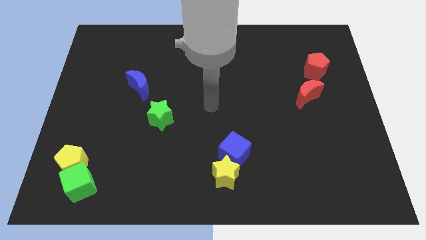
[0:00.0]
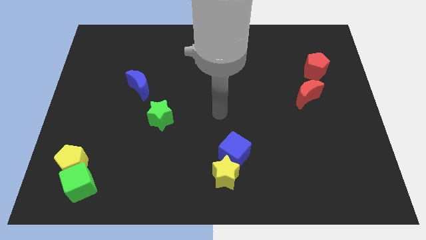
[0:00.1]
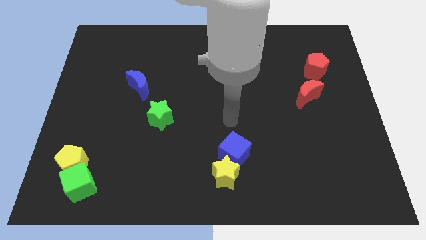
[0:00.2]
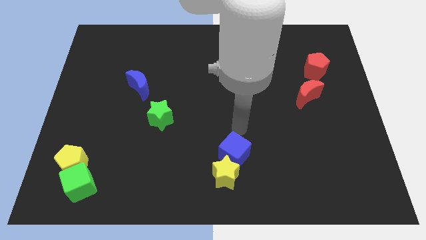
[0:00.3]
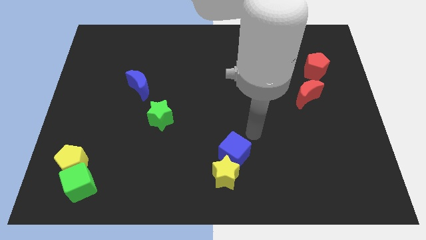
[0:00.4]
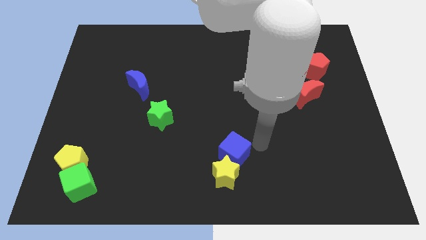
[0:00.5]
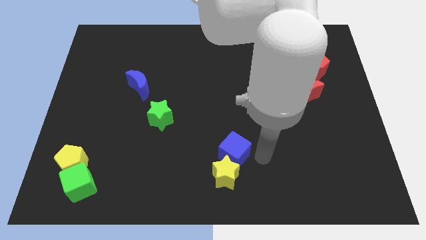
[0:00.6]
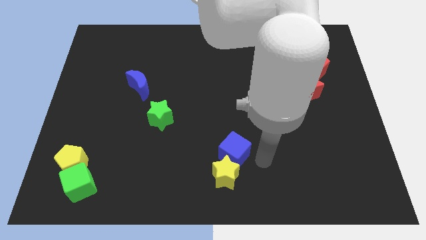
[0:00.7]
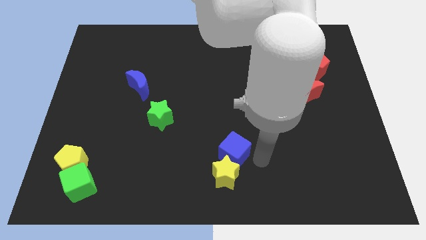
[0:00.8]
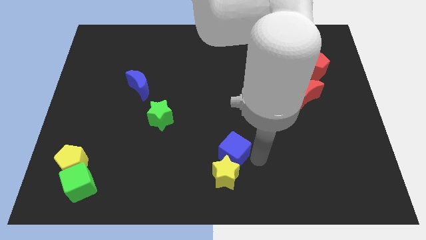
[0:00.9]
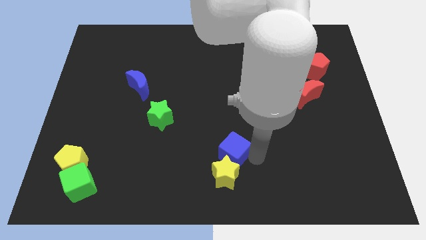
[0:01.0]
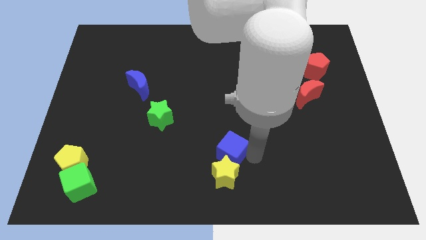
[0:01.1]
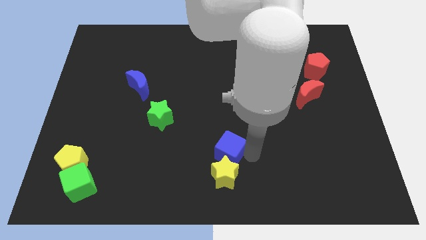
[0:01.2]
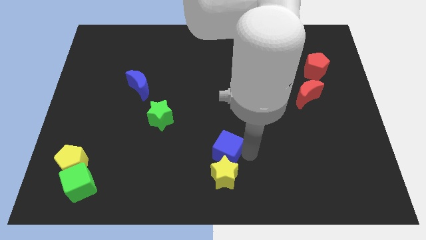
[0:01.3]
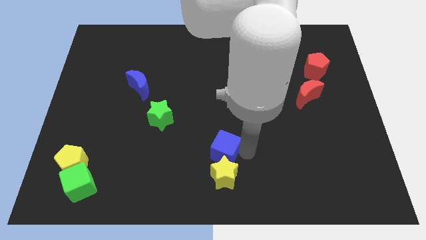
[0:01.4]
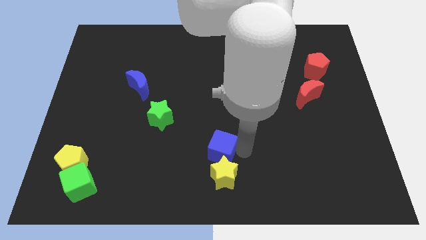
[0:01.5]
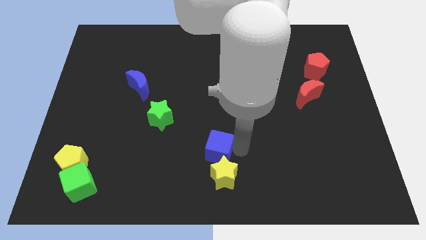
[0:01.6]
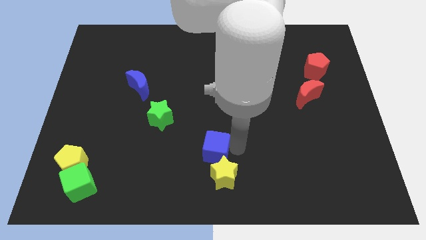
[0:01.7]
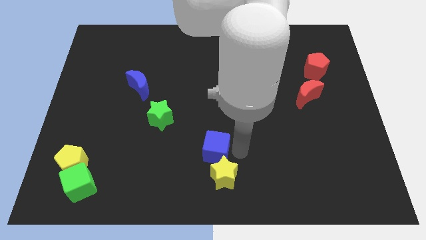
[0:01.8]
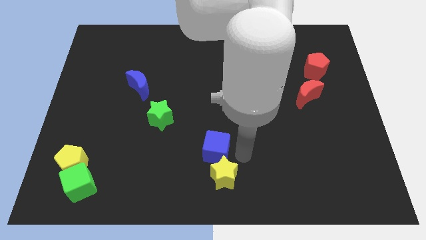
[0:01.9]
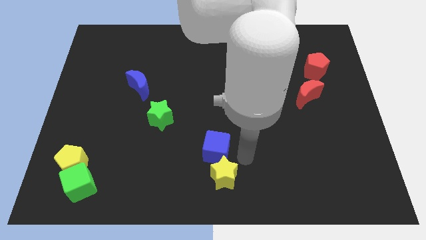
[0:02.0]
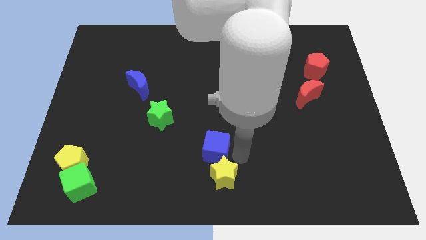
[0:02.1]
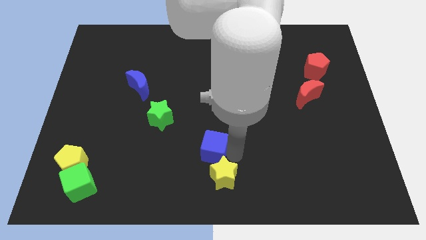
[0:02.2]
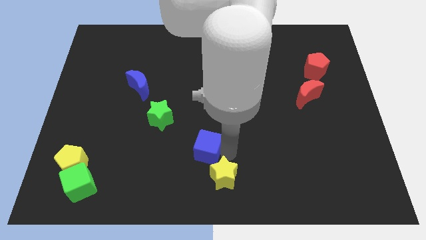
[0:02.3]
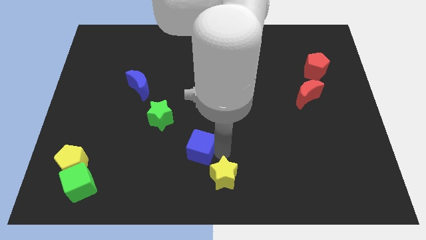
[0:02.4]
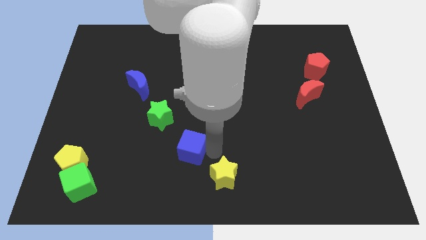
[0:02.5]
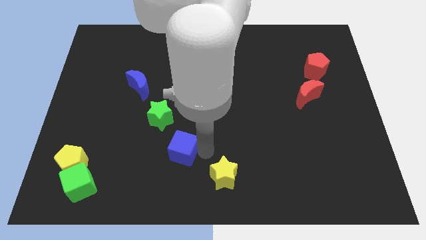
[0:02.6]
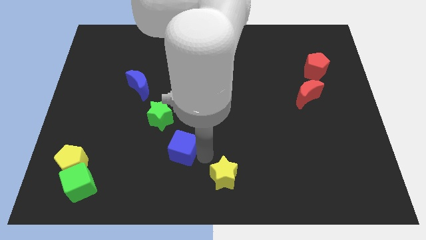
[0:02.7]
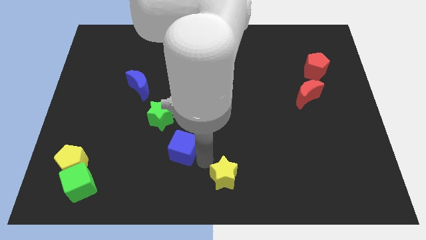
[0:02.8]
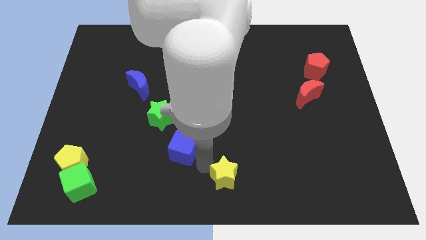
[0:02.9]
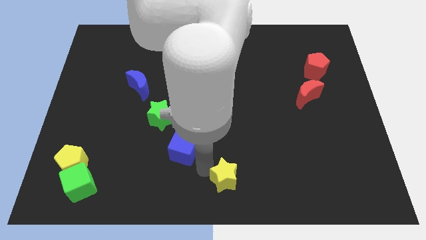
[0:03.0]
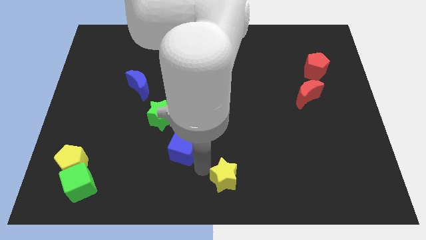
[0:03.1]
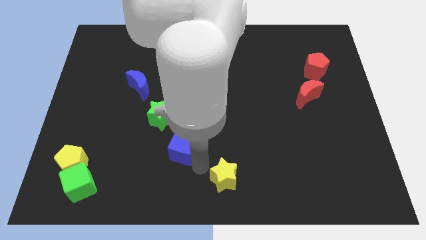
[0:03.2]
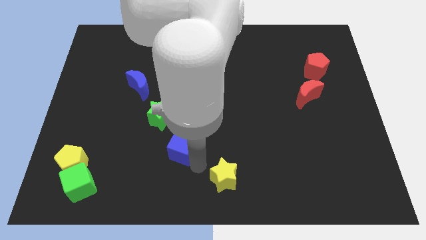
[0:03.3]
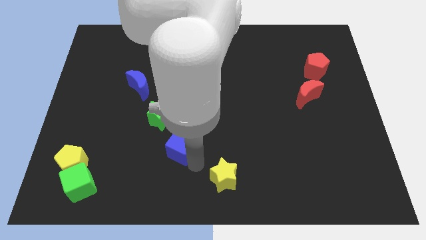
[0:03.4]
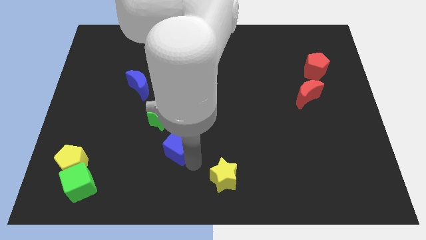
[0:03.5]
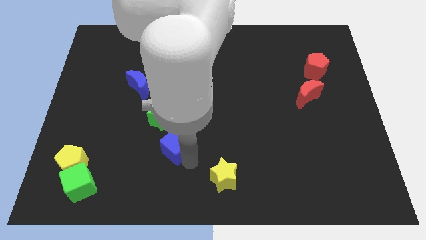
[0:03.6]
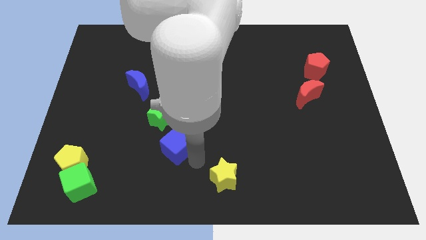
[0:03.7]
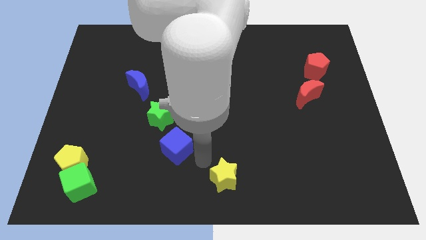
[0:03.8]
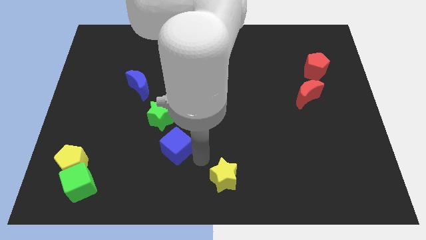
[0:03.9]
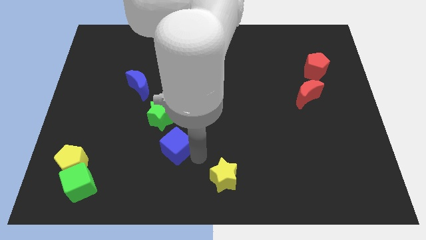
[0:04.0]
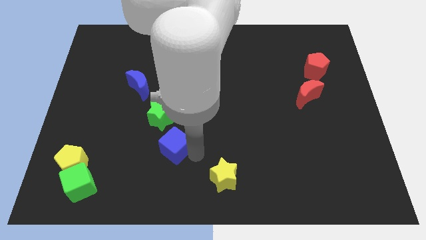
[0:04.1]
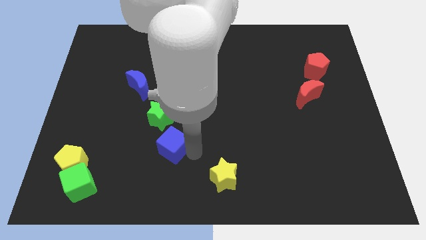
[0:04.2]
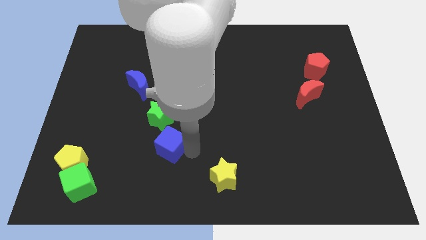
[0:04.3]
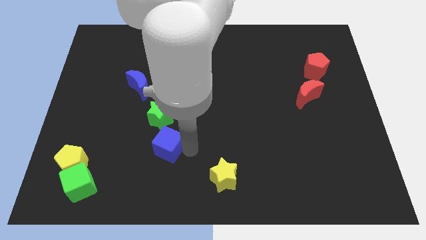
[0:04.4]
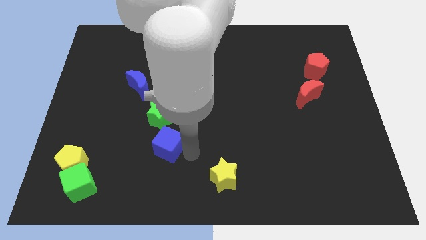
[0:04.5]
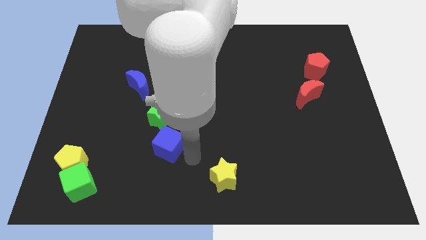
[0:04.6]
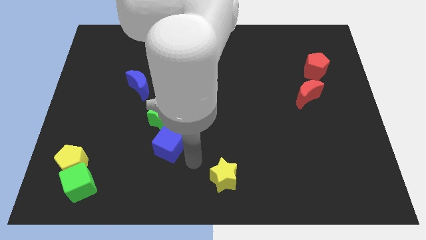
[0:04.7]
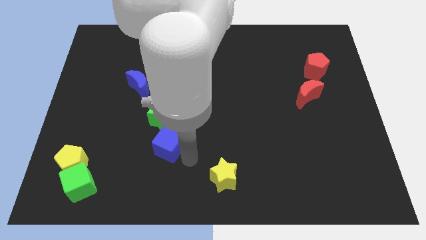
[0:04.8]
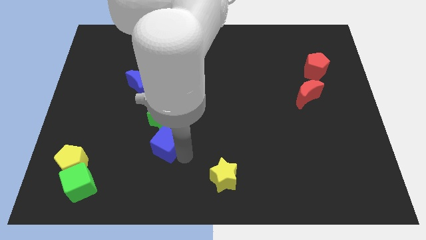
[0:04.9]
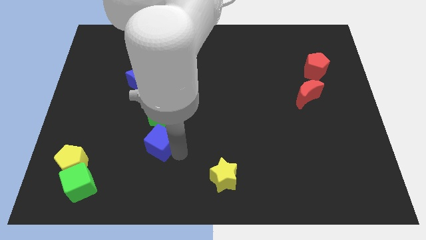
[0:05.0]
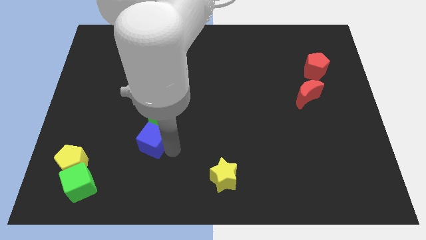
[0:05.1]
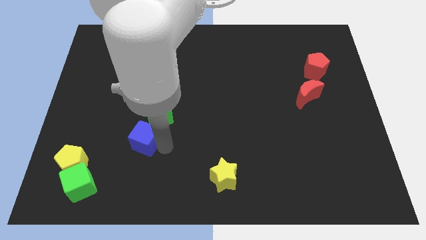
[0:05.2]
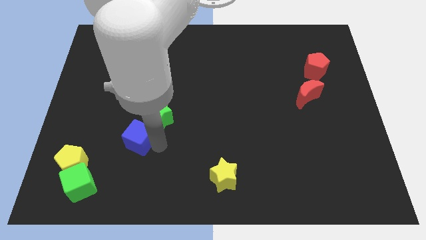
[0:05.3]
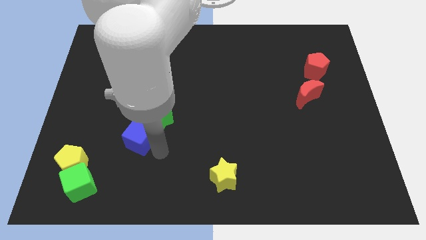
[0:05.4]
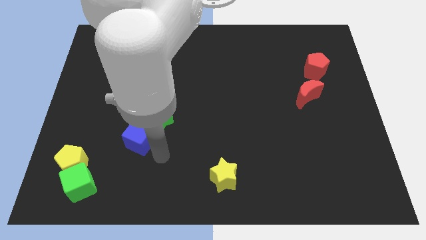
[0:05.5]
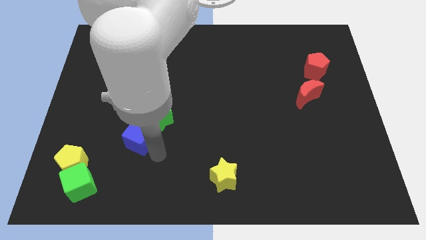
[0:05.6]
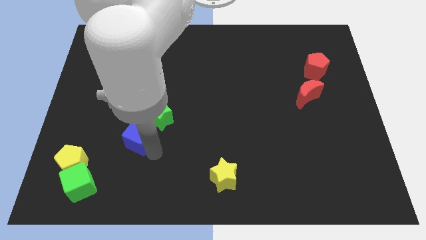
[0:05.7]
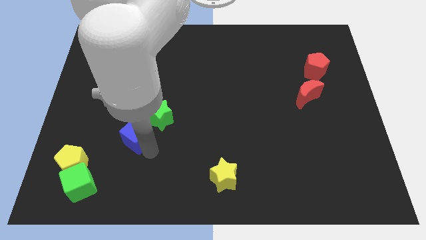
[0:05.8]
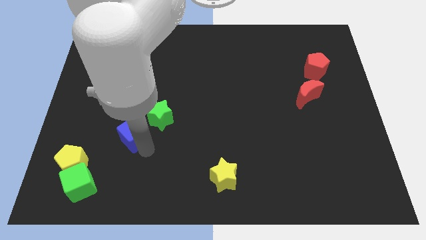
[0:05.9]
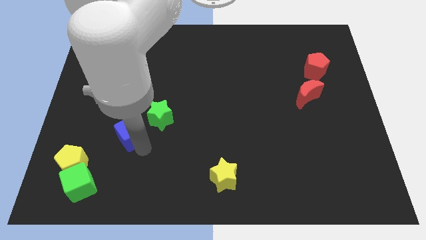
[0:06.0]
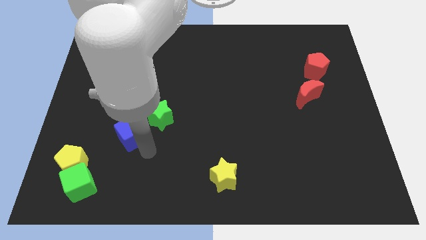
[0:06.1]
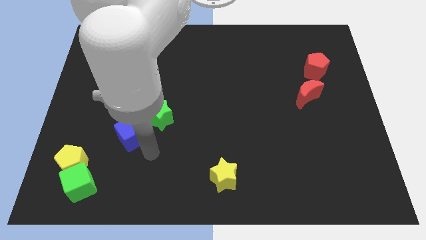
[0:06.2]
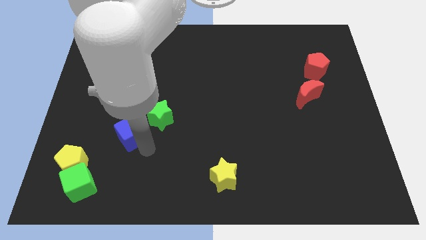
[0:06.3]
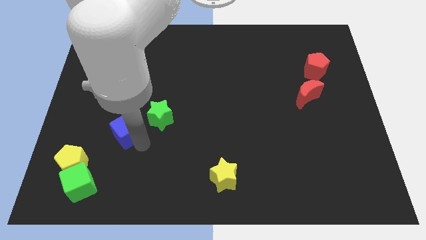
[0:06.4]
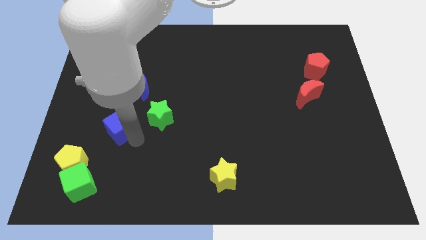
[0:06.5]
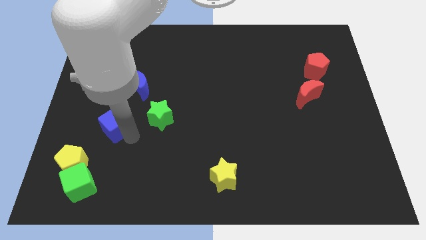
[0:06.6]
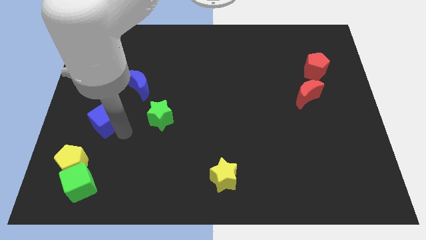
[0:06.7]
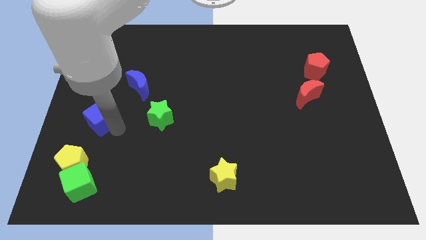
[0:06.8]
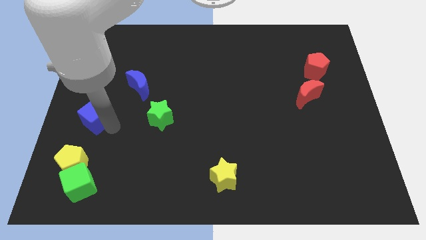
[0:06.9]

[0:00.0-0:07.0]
slide the blue cube to the left side of the board
